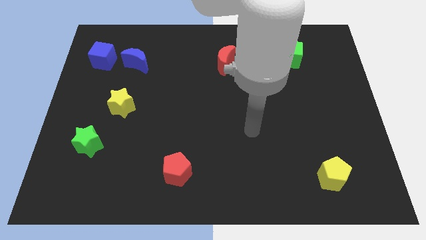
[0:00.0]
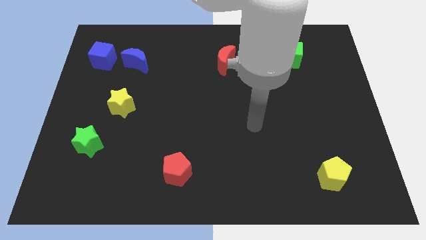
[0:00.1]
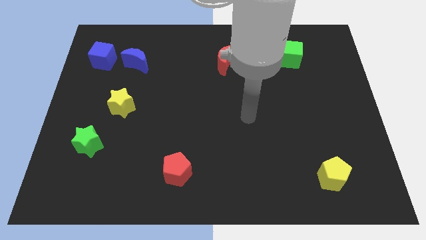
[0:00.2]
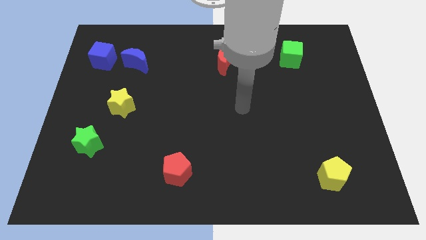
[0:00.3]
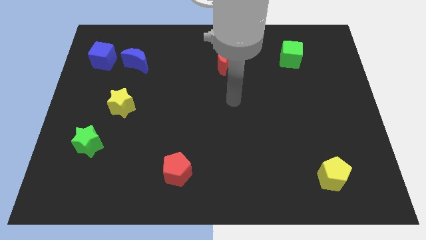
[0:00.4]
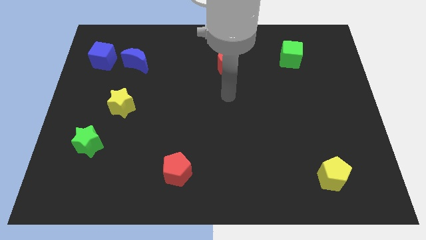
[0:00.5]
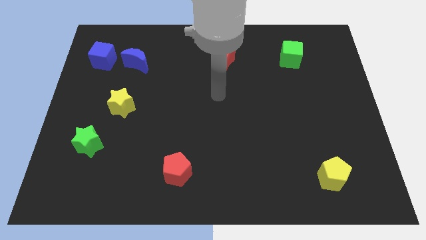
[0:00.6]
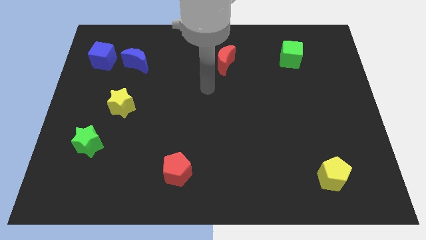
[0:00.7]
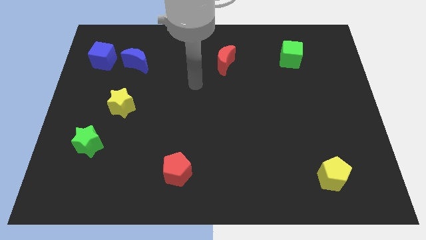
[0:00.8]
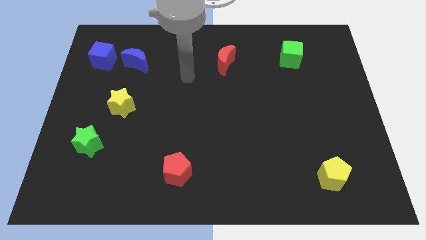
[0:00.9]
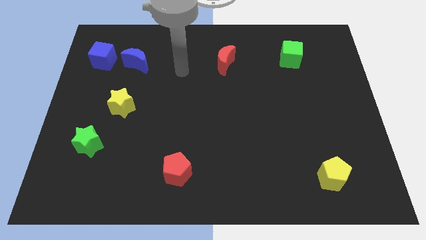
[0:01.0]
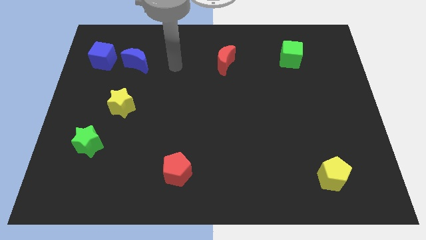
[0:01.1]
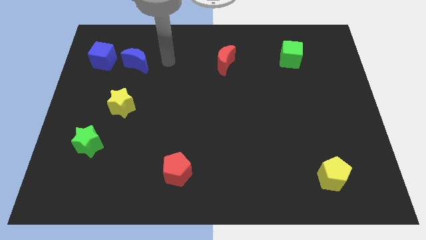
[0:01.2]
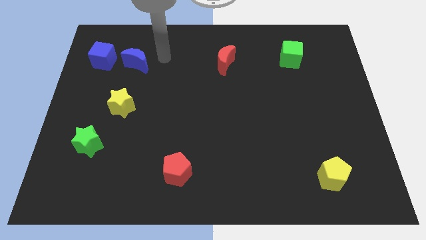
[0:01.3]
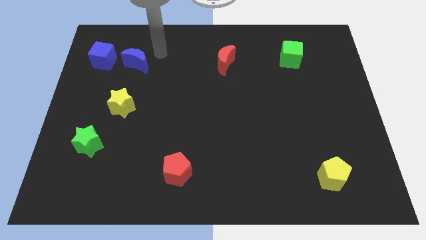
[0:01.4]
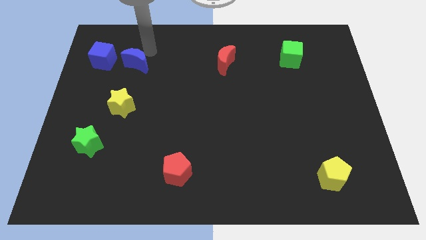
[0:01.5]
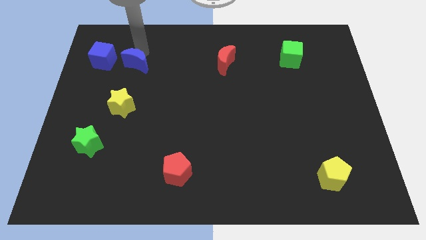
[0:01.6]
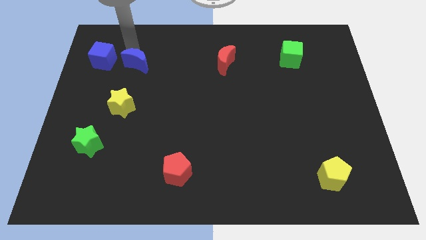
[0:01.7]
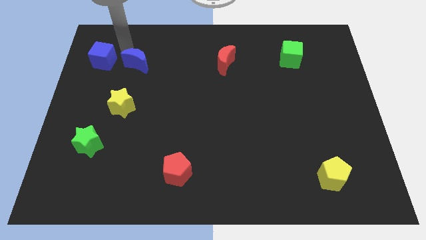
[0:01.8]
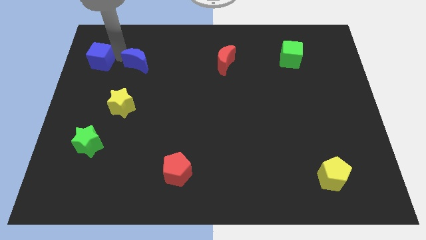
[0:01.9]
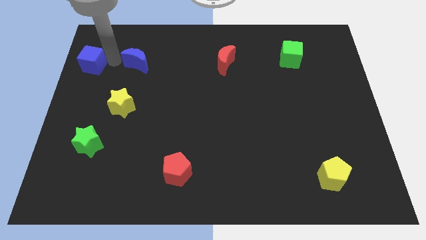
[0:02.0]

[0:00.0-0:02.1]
pull the blue moon apart from the blue cube

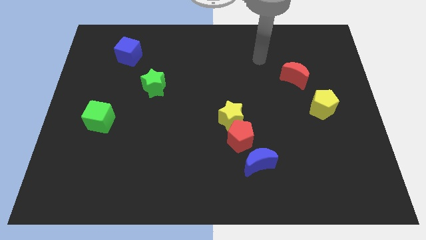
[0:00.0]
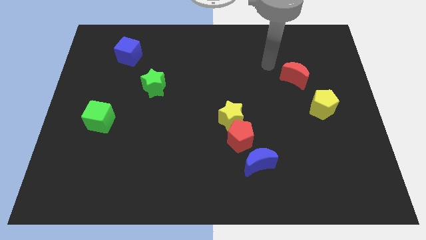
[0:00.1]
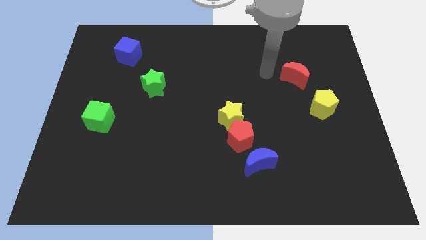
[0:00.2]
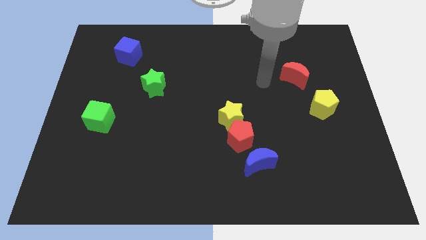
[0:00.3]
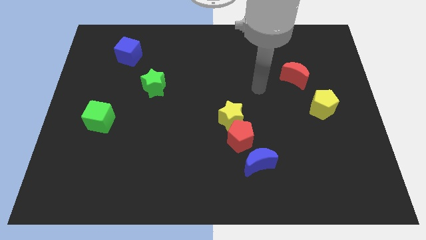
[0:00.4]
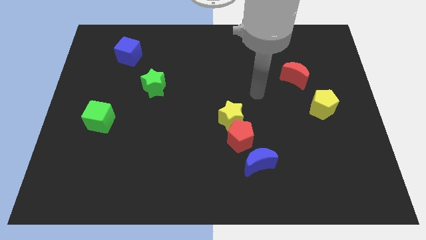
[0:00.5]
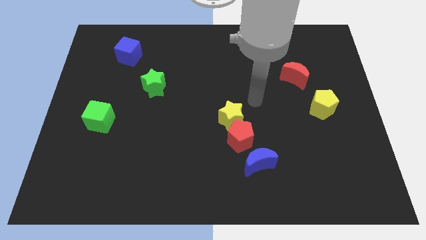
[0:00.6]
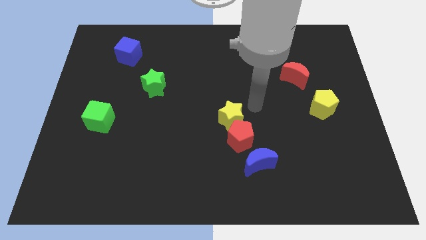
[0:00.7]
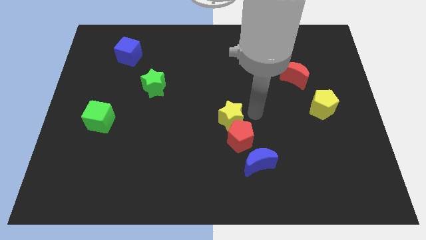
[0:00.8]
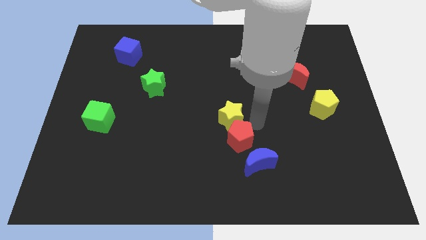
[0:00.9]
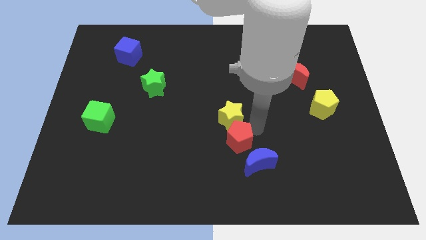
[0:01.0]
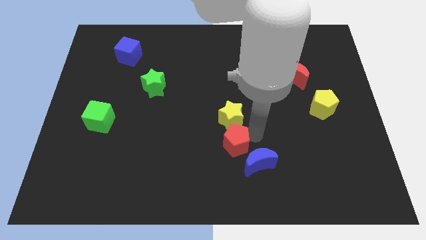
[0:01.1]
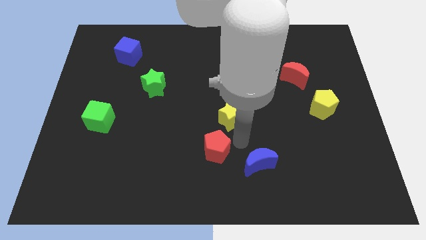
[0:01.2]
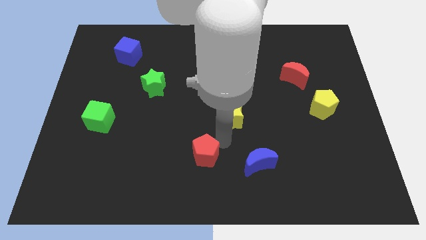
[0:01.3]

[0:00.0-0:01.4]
pull the yellow star apart from the red pentagon

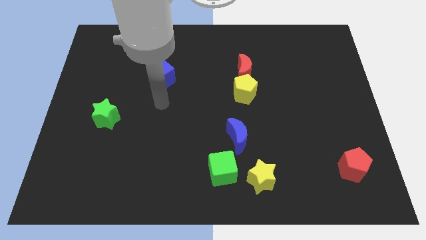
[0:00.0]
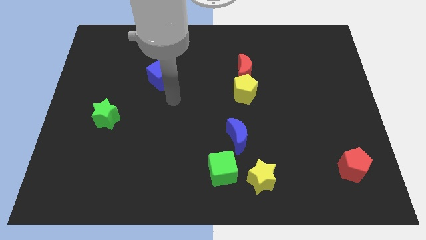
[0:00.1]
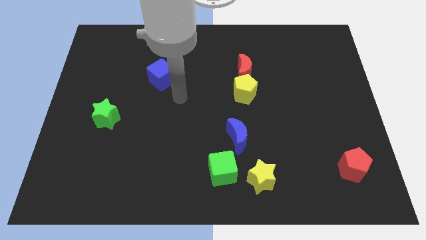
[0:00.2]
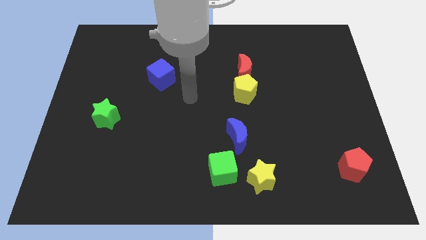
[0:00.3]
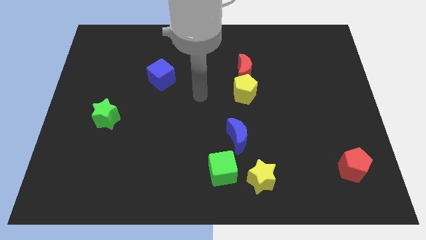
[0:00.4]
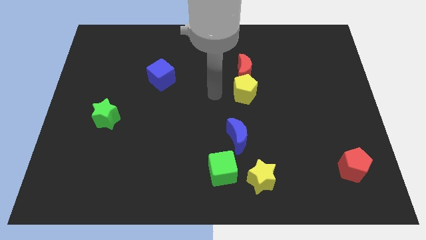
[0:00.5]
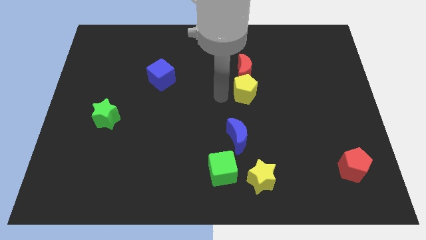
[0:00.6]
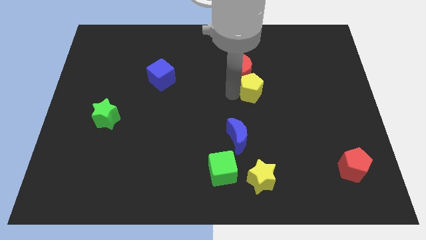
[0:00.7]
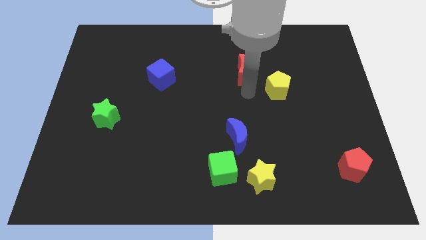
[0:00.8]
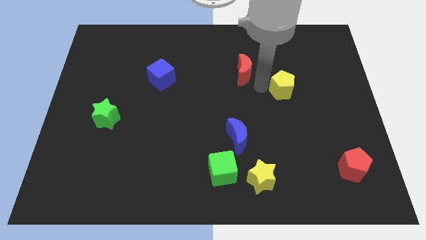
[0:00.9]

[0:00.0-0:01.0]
move the red moon away from the yellow pentagon

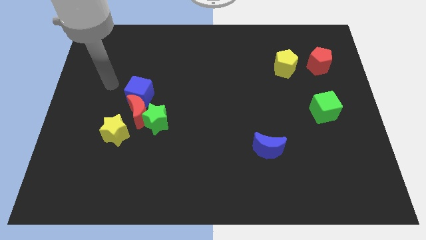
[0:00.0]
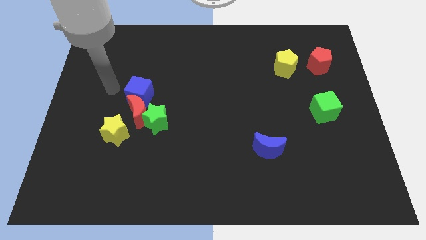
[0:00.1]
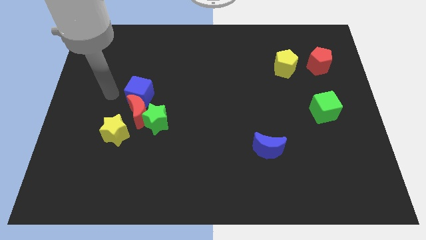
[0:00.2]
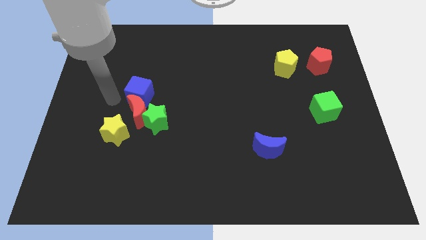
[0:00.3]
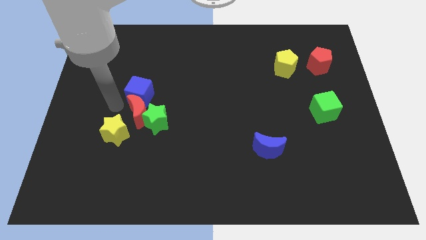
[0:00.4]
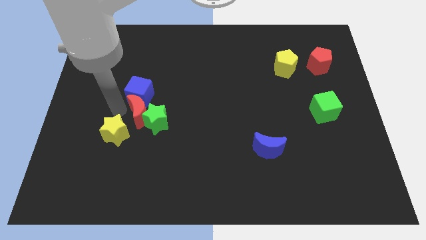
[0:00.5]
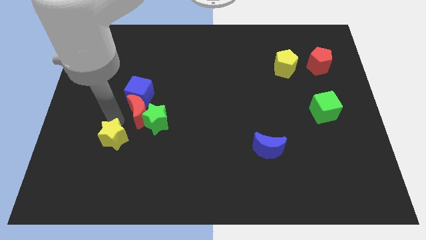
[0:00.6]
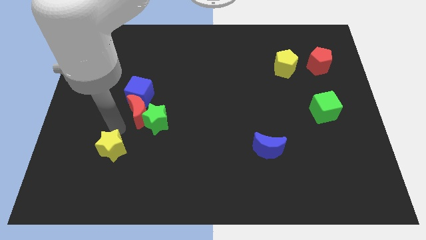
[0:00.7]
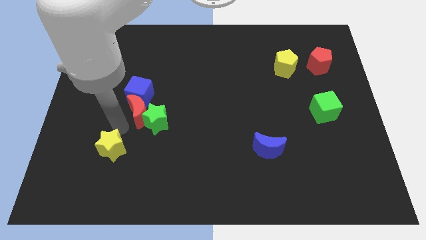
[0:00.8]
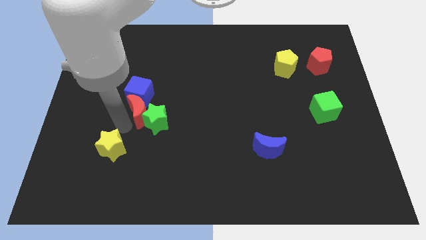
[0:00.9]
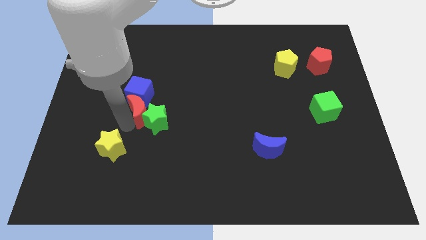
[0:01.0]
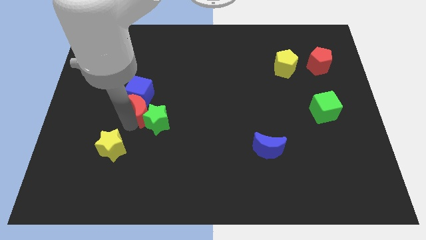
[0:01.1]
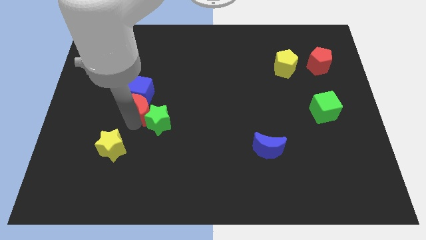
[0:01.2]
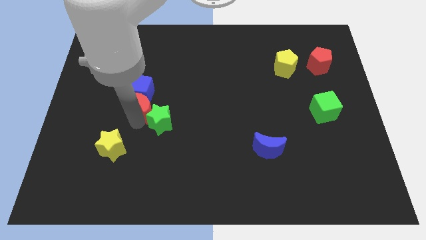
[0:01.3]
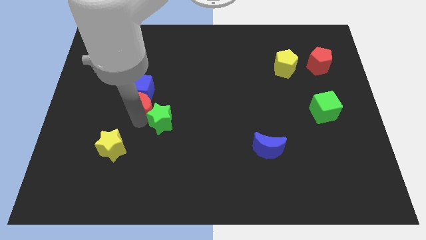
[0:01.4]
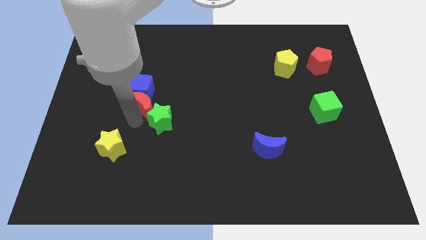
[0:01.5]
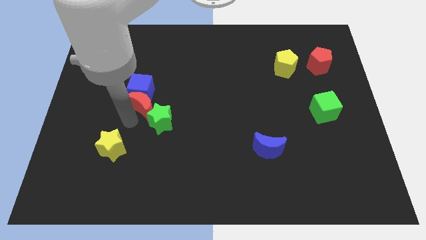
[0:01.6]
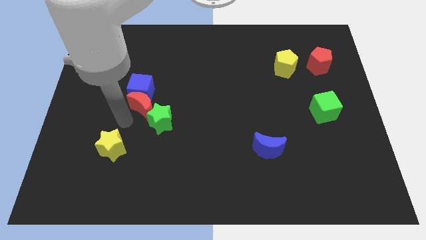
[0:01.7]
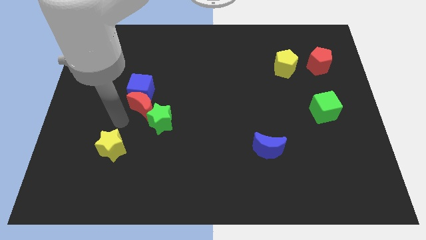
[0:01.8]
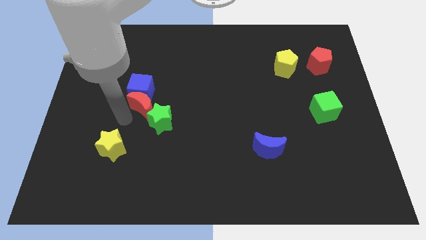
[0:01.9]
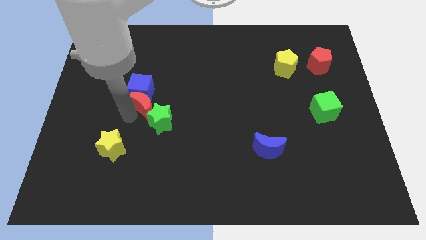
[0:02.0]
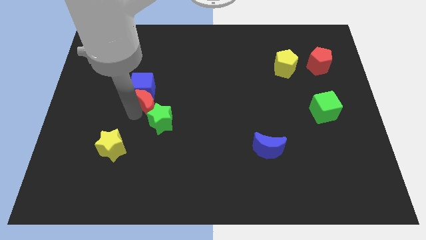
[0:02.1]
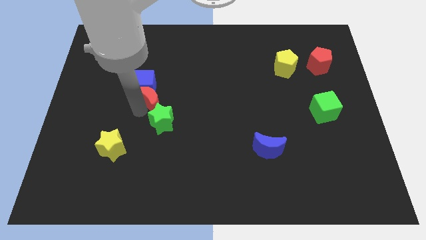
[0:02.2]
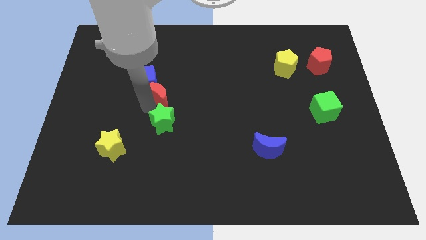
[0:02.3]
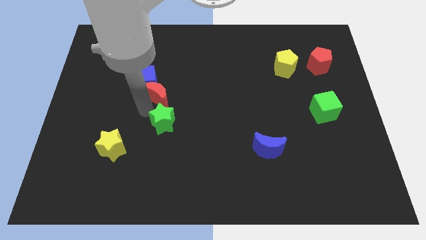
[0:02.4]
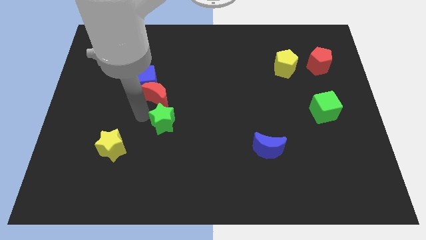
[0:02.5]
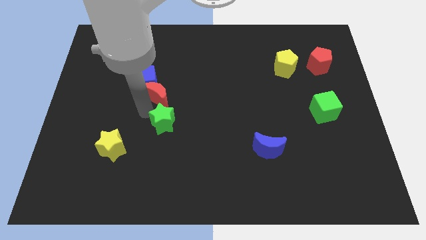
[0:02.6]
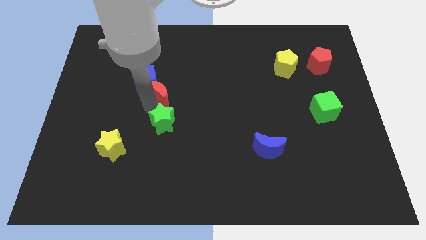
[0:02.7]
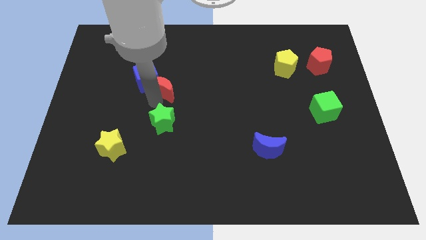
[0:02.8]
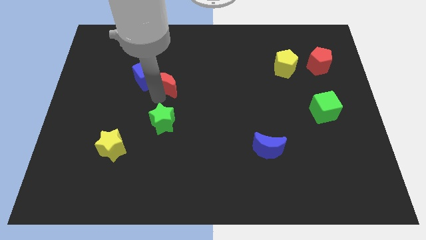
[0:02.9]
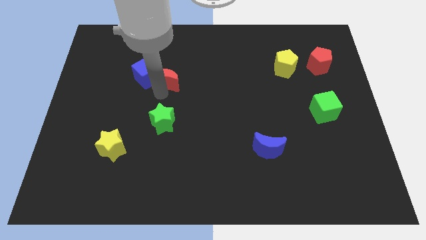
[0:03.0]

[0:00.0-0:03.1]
move the red moon away from the clump

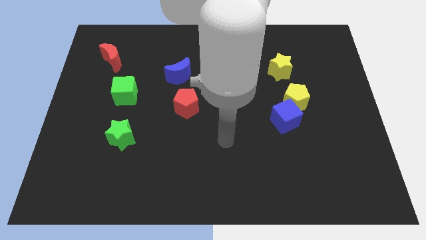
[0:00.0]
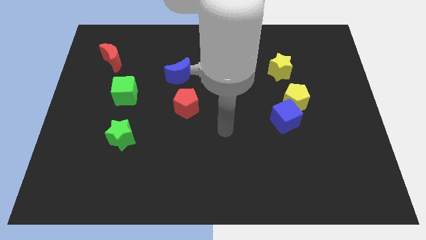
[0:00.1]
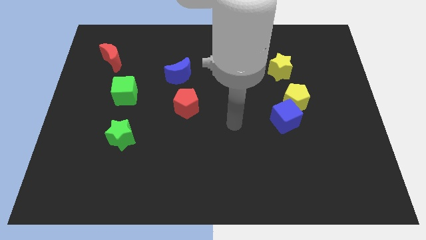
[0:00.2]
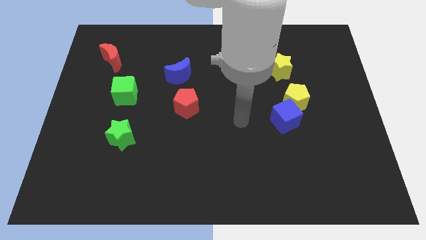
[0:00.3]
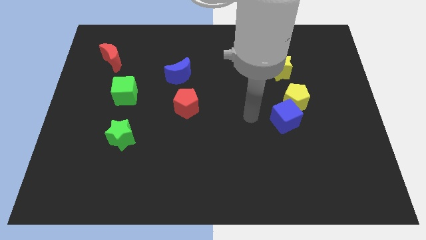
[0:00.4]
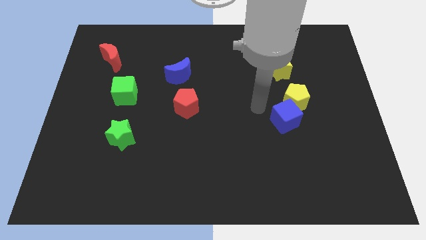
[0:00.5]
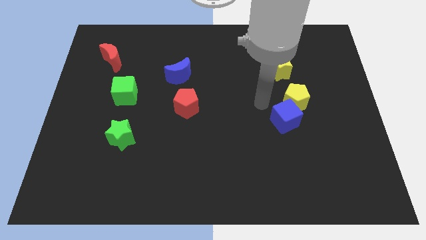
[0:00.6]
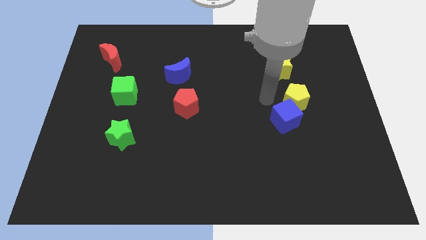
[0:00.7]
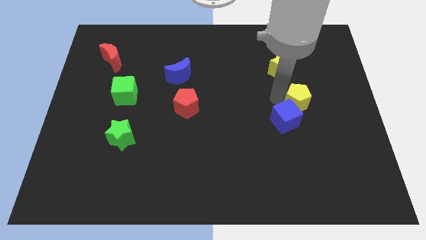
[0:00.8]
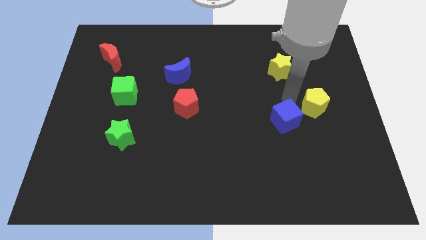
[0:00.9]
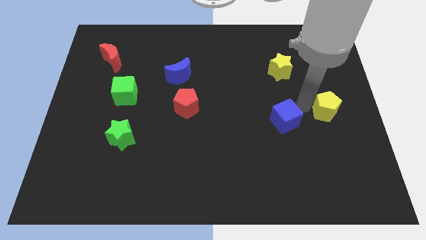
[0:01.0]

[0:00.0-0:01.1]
separate the blue cube from the yellow pentagon

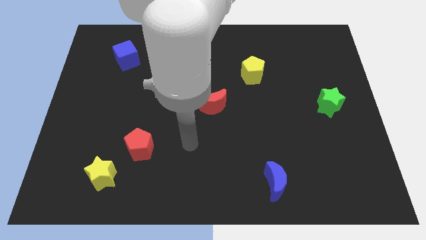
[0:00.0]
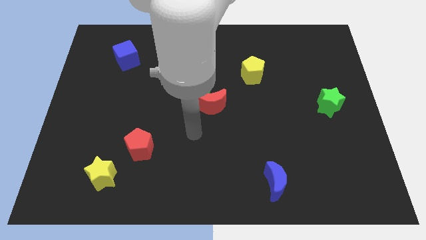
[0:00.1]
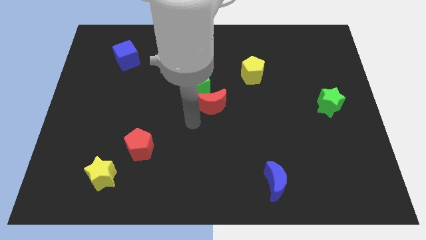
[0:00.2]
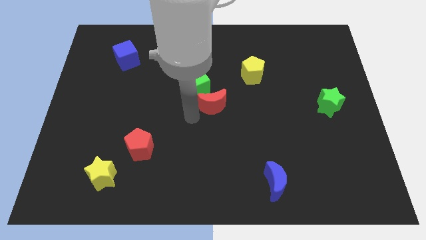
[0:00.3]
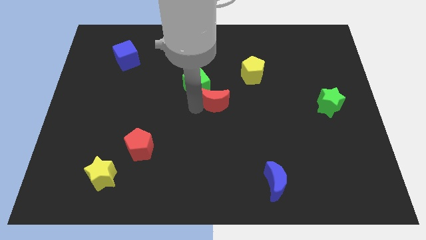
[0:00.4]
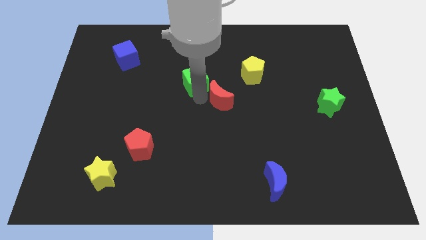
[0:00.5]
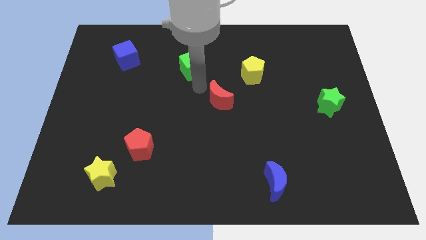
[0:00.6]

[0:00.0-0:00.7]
pull the red moon apart from the green cube
